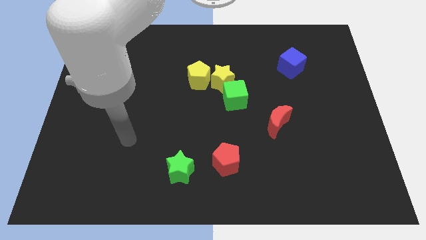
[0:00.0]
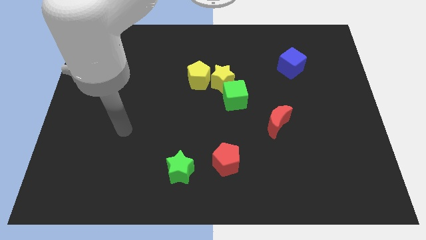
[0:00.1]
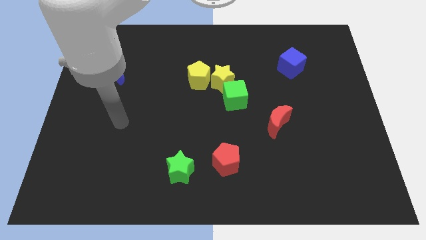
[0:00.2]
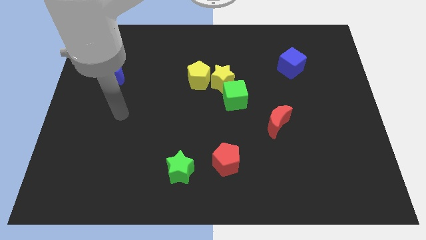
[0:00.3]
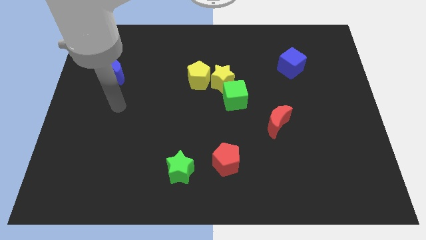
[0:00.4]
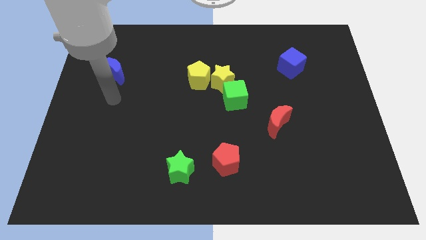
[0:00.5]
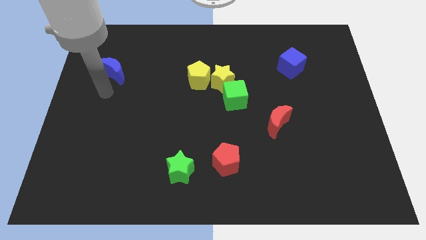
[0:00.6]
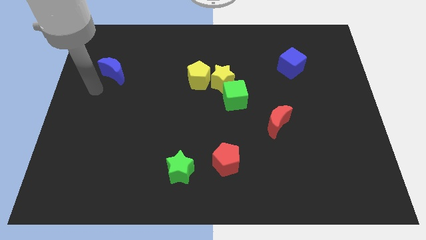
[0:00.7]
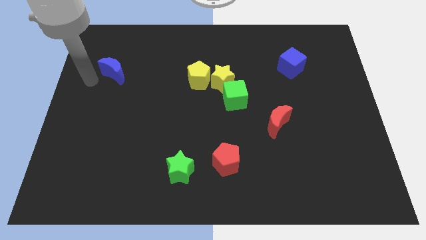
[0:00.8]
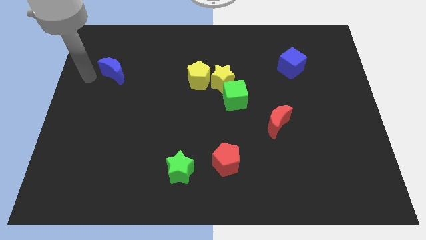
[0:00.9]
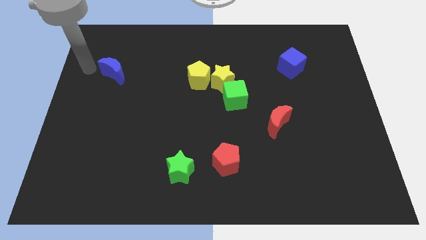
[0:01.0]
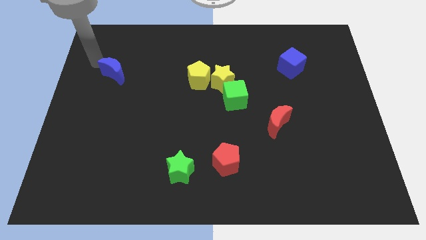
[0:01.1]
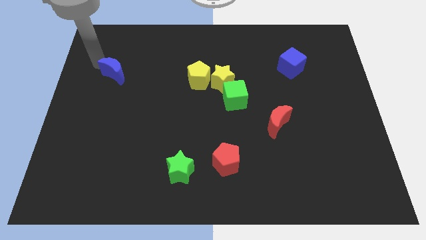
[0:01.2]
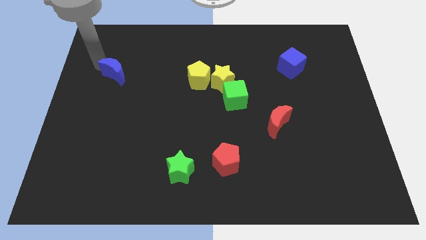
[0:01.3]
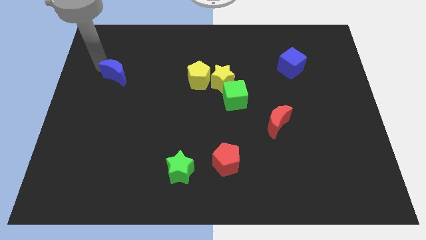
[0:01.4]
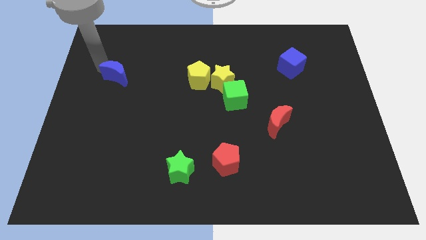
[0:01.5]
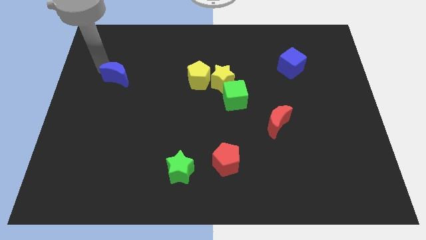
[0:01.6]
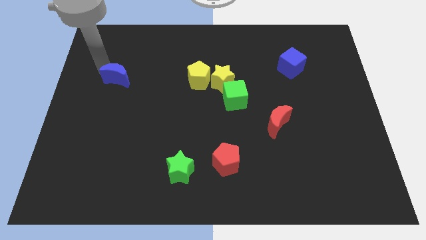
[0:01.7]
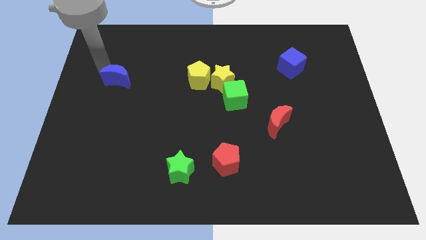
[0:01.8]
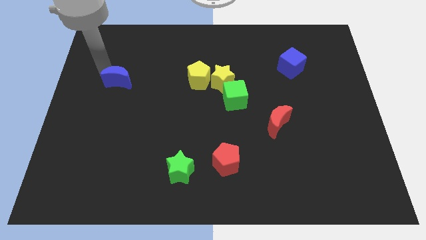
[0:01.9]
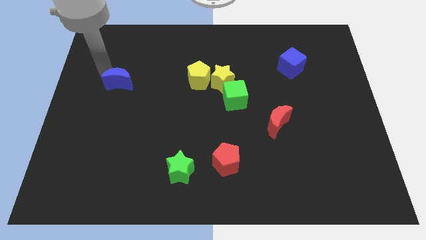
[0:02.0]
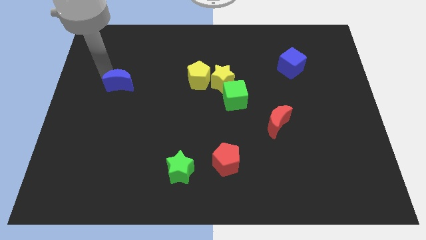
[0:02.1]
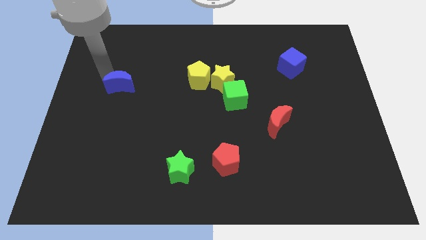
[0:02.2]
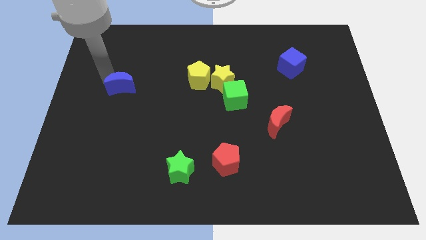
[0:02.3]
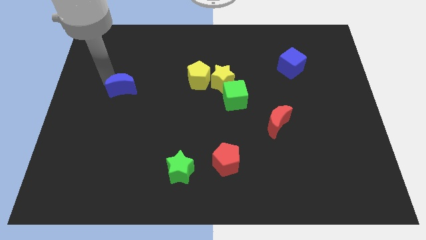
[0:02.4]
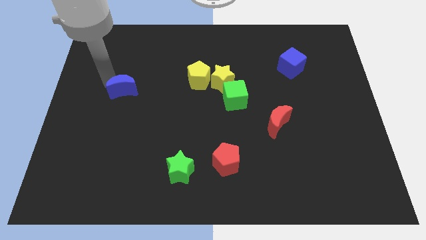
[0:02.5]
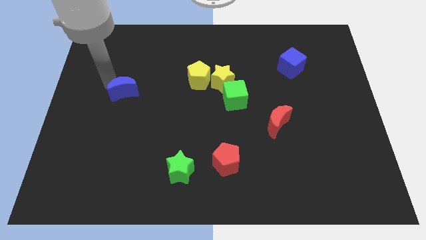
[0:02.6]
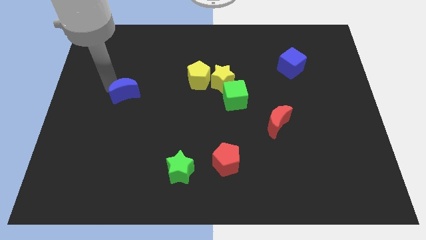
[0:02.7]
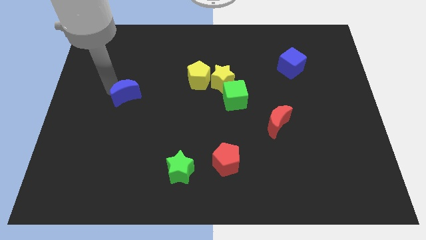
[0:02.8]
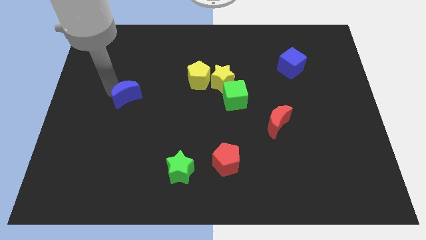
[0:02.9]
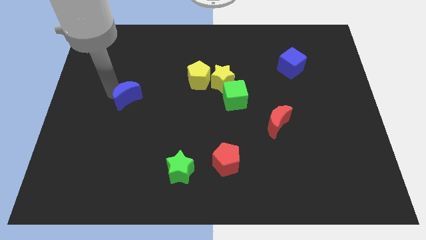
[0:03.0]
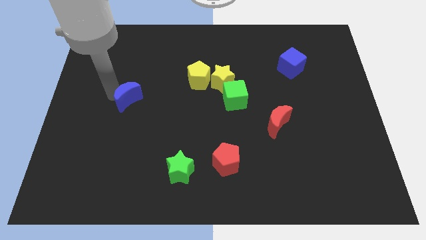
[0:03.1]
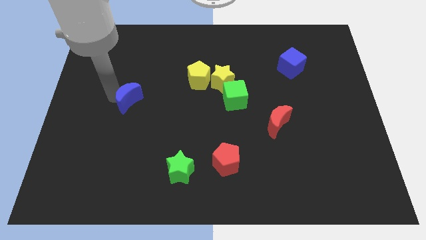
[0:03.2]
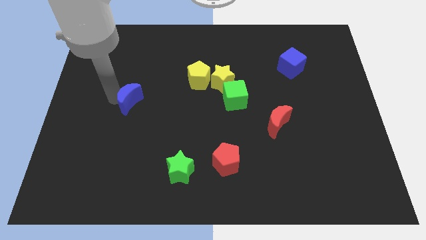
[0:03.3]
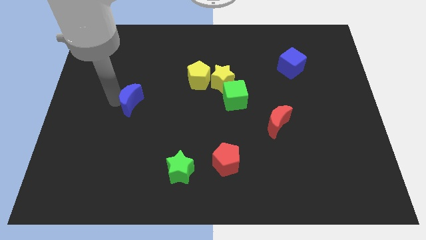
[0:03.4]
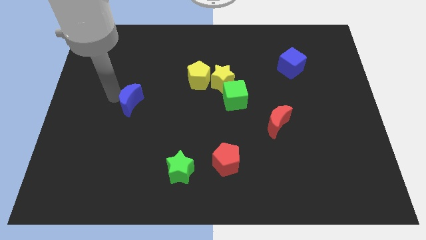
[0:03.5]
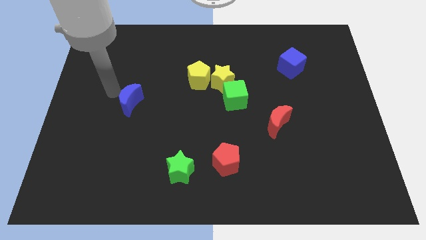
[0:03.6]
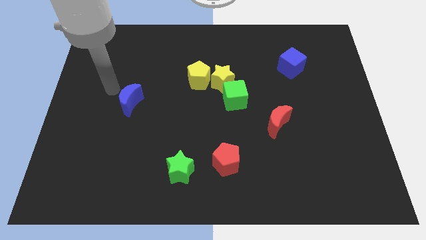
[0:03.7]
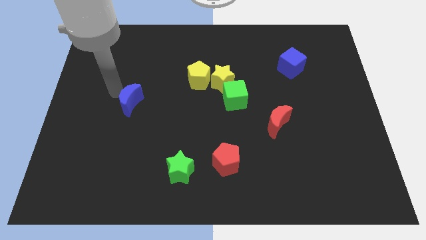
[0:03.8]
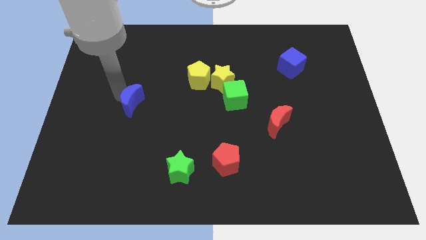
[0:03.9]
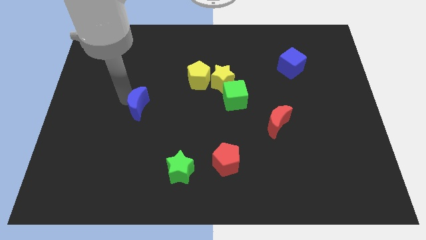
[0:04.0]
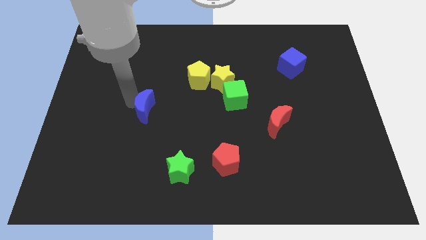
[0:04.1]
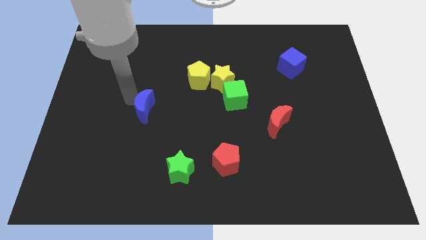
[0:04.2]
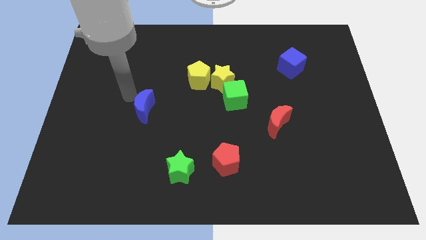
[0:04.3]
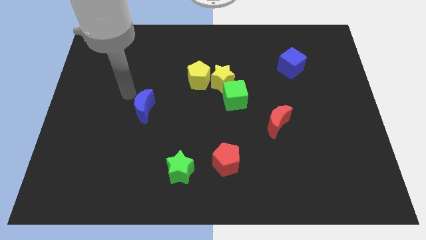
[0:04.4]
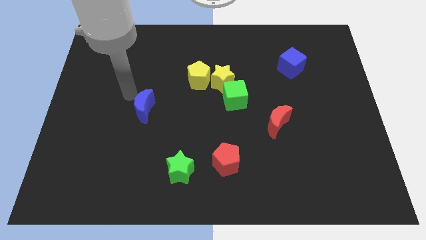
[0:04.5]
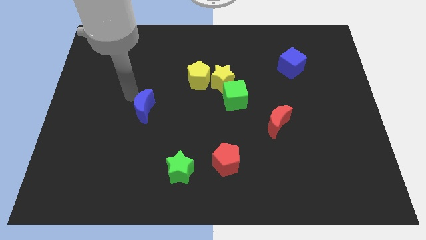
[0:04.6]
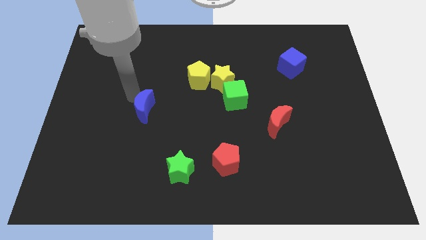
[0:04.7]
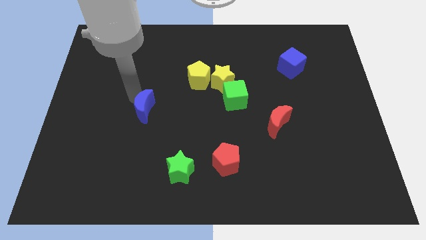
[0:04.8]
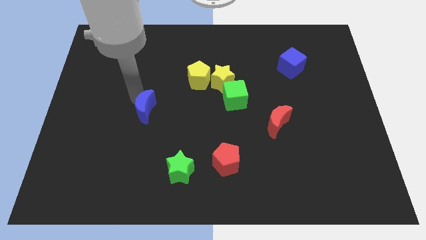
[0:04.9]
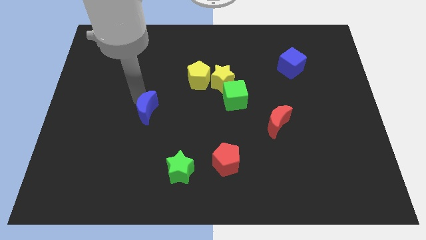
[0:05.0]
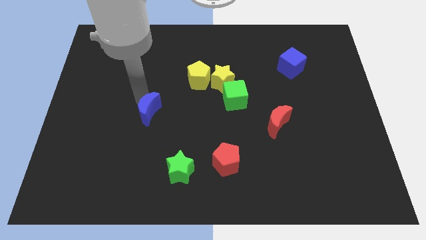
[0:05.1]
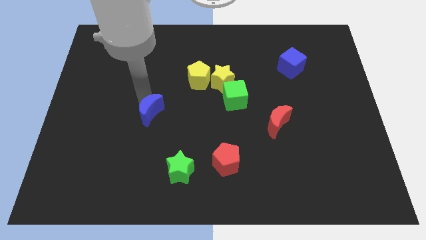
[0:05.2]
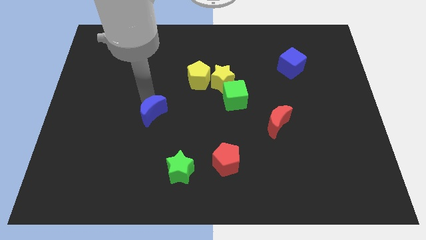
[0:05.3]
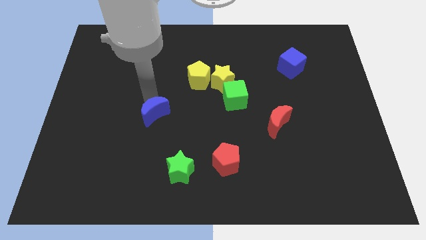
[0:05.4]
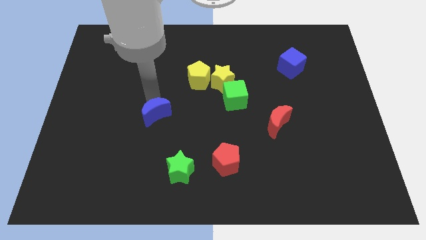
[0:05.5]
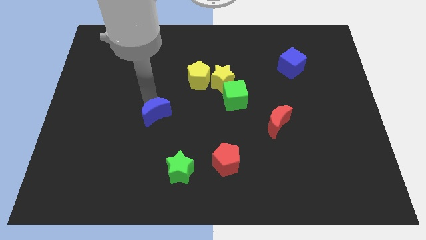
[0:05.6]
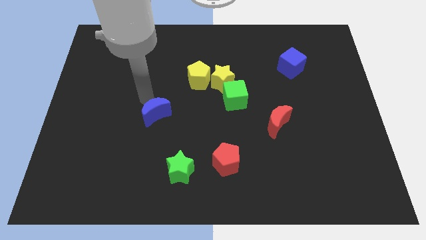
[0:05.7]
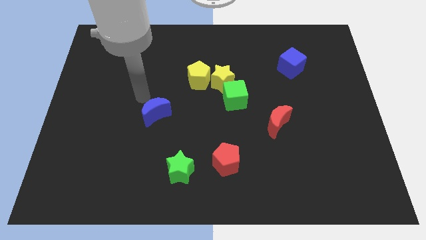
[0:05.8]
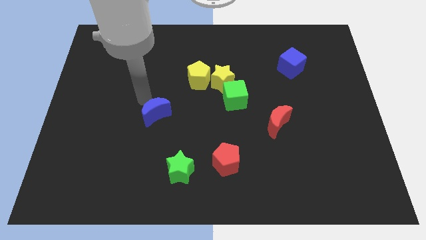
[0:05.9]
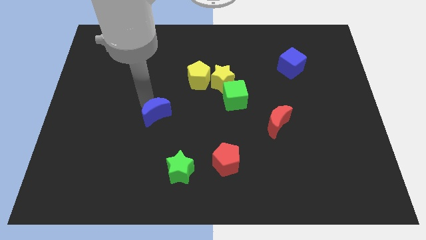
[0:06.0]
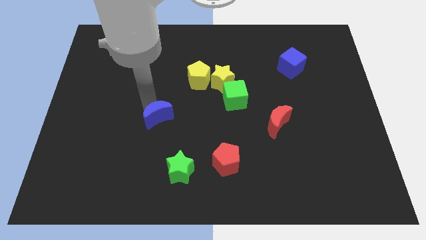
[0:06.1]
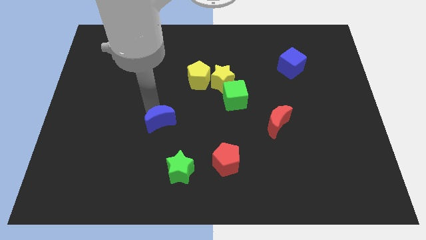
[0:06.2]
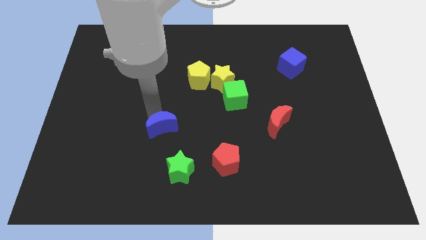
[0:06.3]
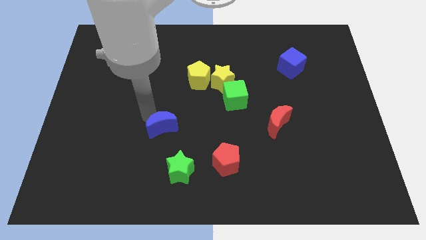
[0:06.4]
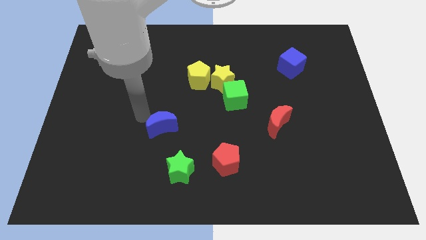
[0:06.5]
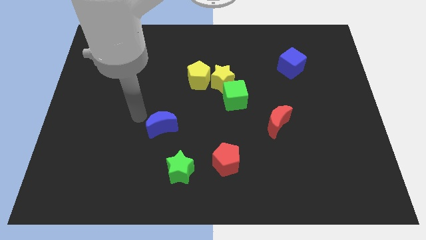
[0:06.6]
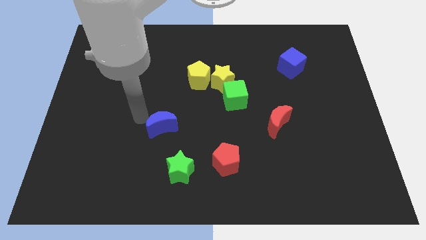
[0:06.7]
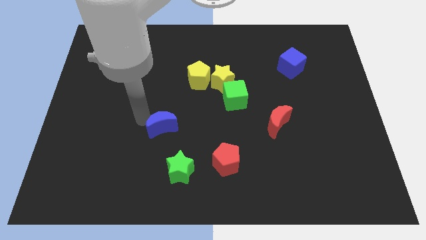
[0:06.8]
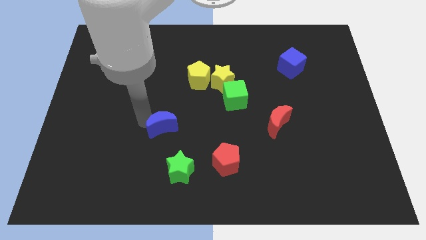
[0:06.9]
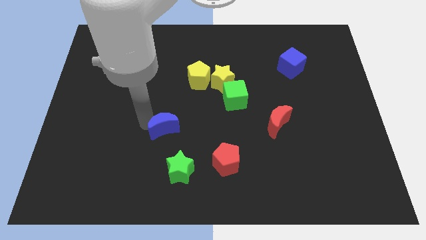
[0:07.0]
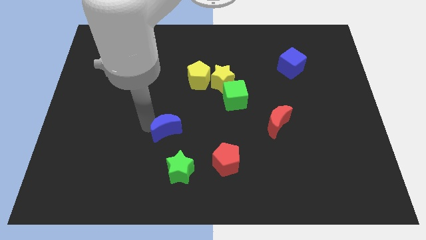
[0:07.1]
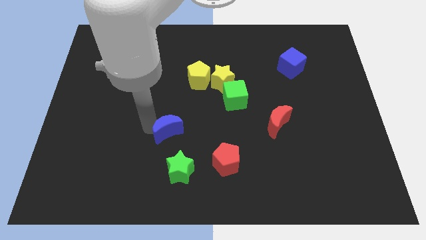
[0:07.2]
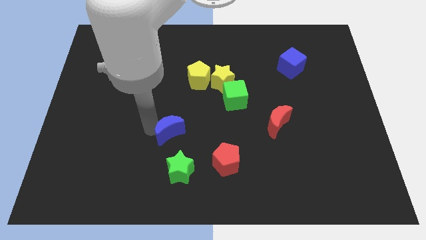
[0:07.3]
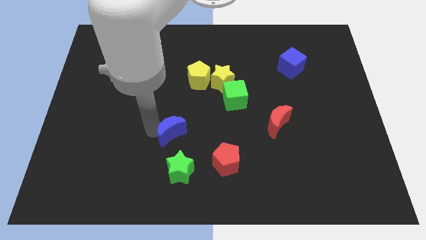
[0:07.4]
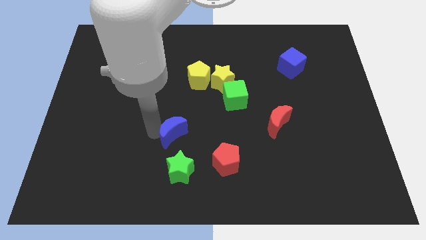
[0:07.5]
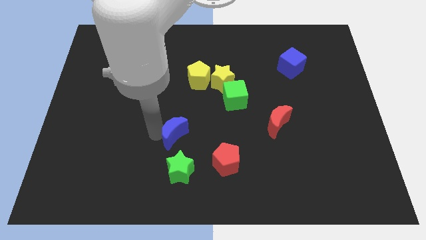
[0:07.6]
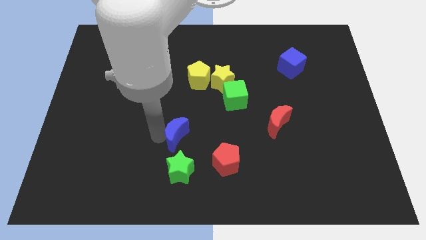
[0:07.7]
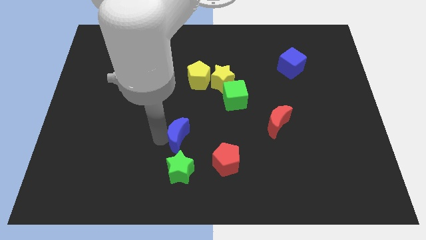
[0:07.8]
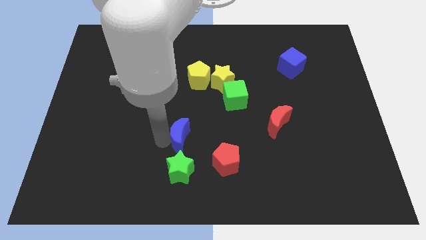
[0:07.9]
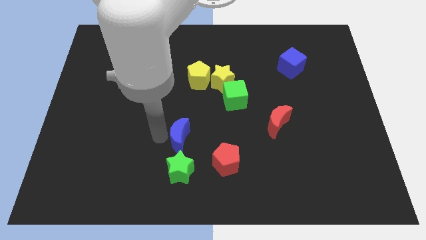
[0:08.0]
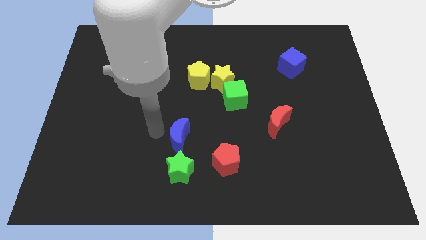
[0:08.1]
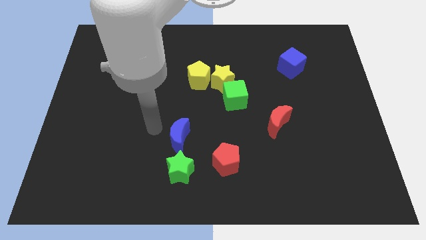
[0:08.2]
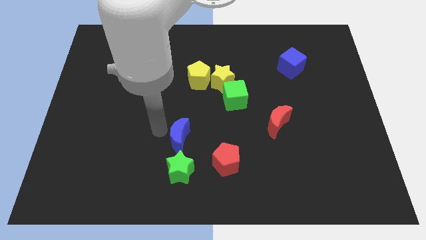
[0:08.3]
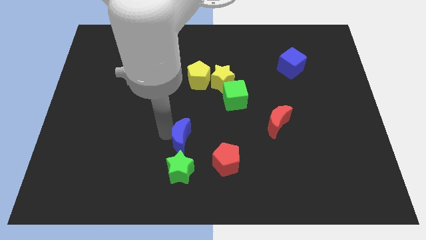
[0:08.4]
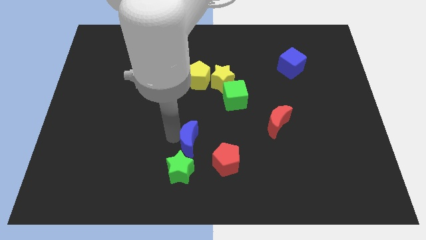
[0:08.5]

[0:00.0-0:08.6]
slide the blue moon to the top right side of the green star
